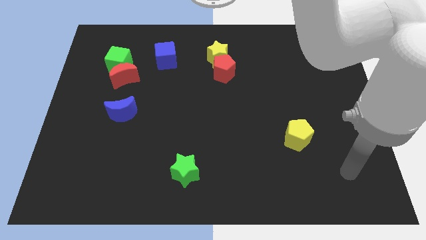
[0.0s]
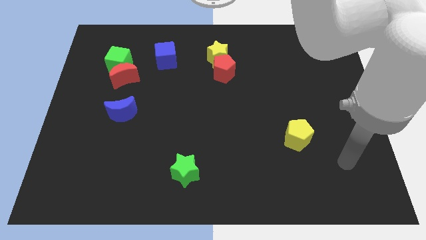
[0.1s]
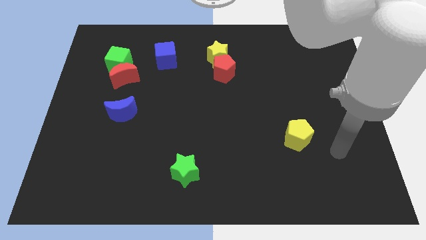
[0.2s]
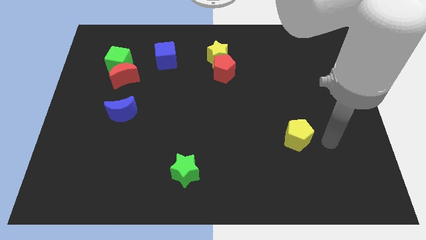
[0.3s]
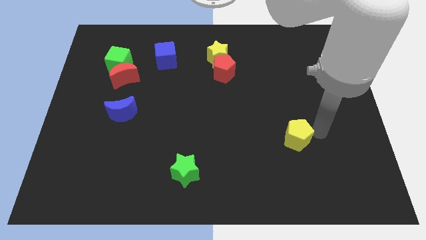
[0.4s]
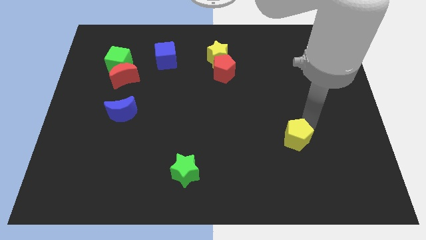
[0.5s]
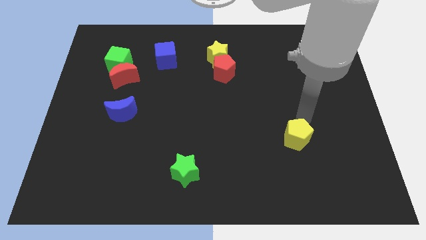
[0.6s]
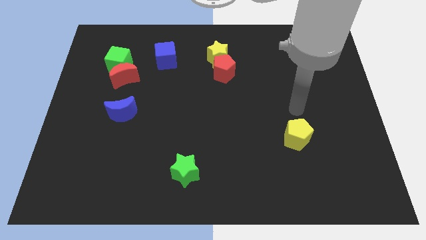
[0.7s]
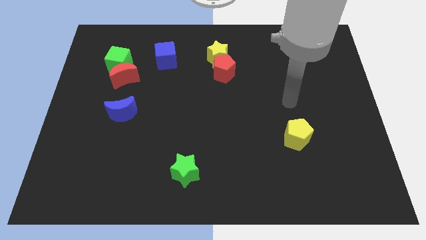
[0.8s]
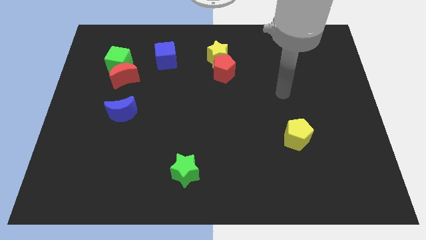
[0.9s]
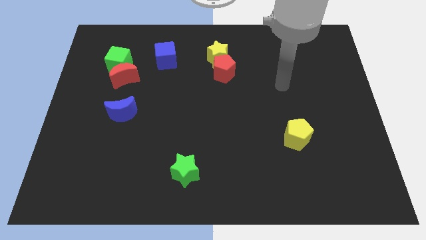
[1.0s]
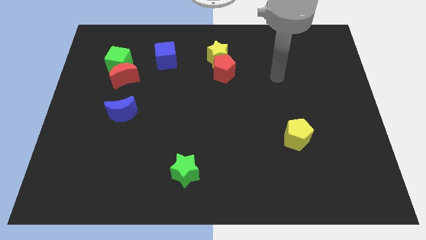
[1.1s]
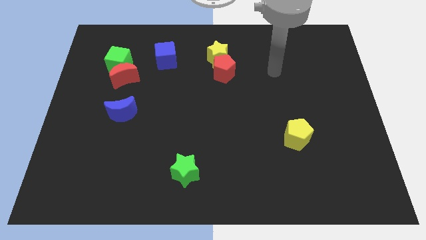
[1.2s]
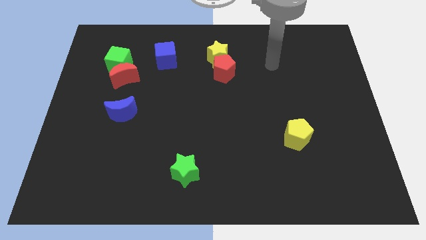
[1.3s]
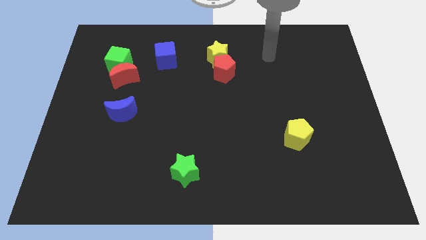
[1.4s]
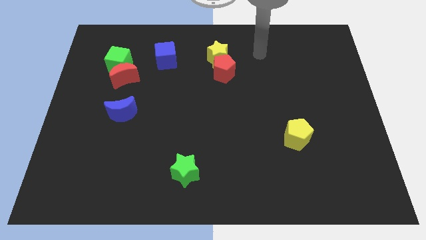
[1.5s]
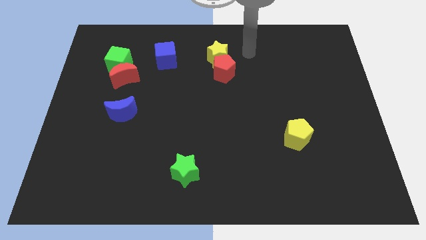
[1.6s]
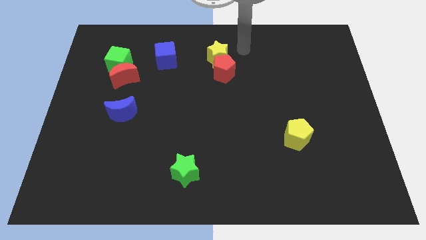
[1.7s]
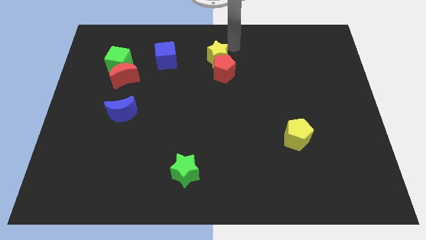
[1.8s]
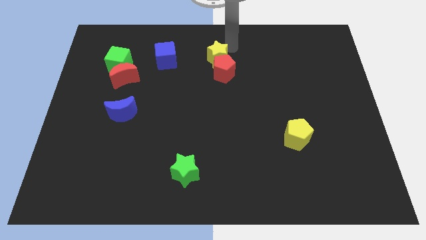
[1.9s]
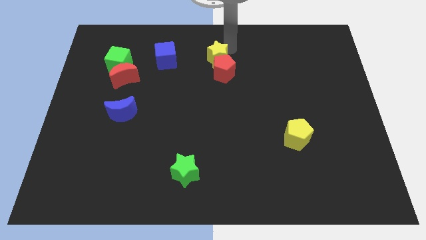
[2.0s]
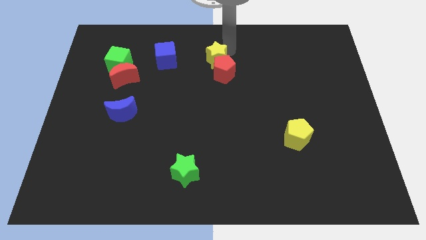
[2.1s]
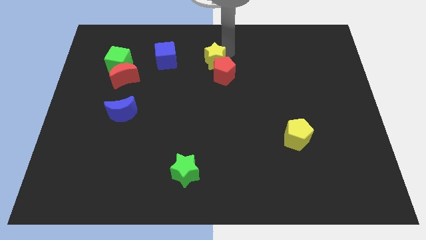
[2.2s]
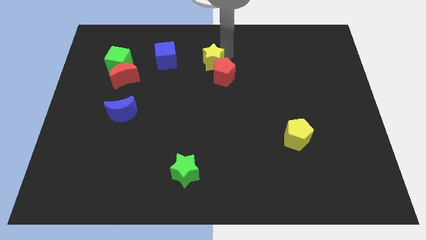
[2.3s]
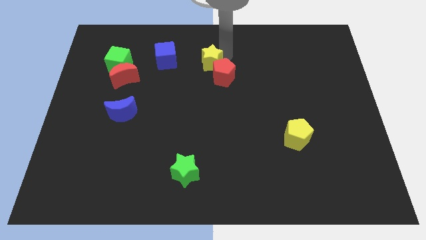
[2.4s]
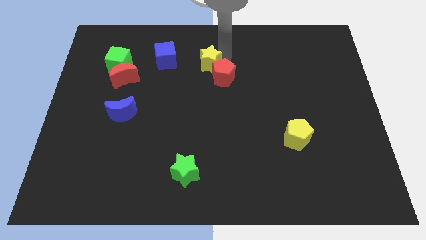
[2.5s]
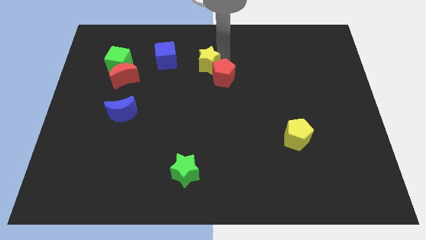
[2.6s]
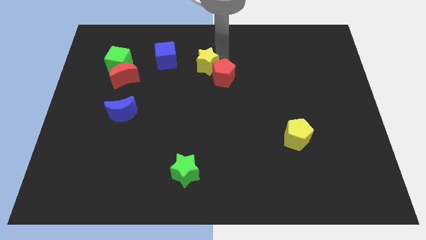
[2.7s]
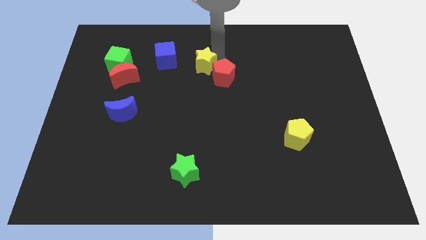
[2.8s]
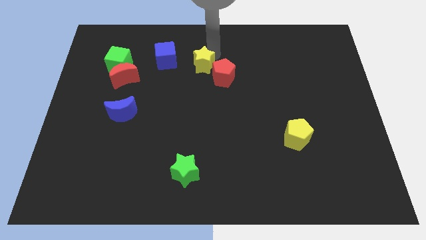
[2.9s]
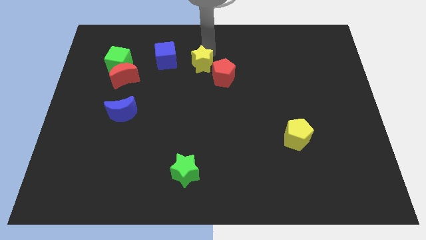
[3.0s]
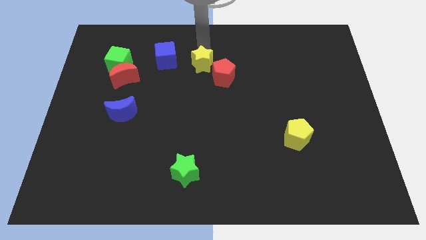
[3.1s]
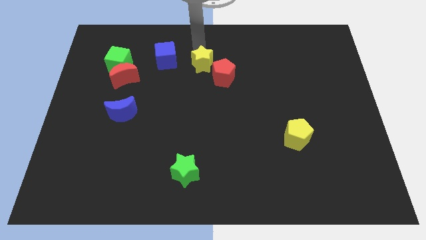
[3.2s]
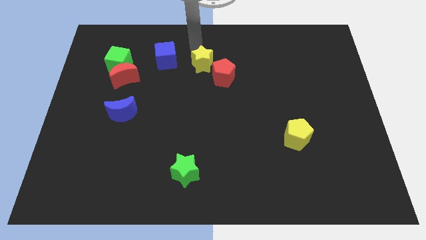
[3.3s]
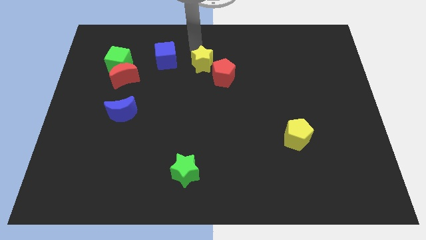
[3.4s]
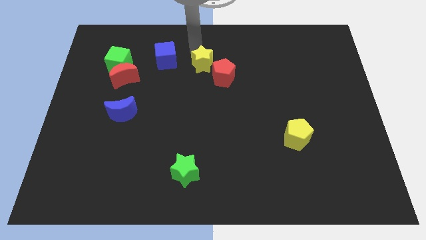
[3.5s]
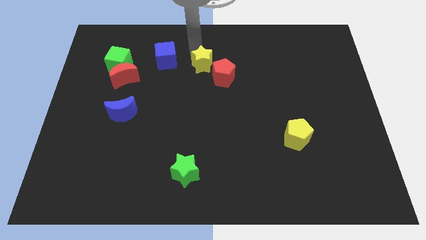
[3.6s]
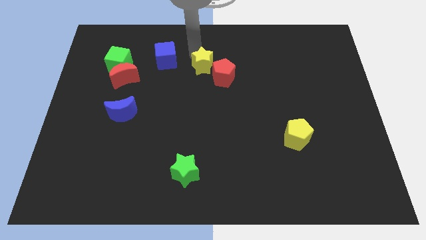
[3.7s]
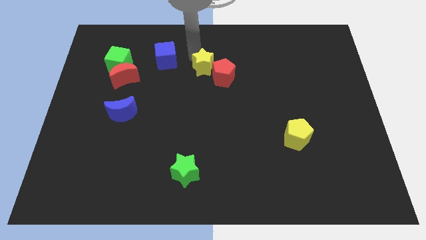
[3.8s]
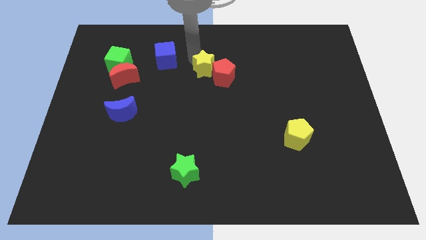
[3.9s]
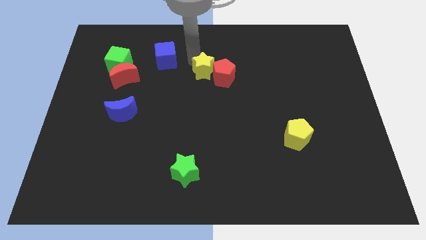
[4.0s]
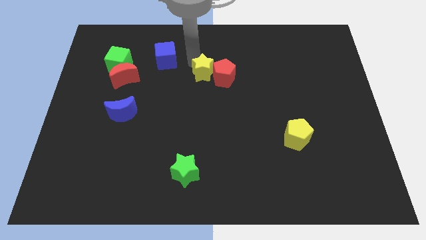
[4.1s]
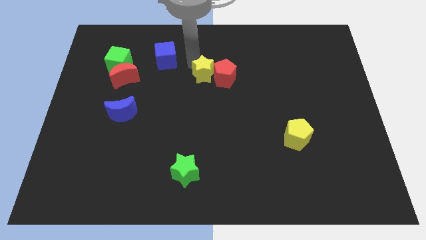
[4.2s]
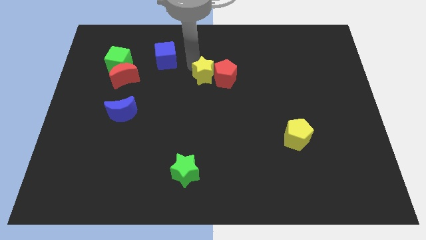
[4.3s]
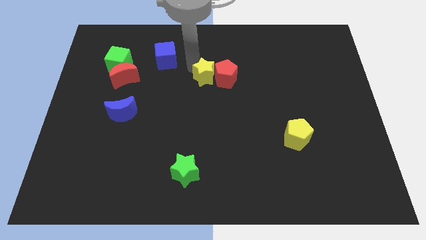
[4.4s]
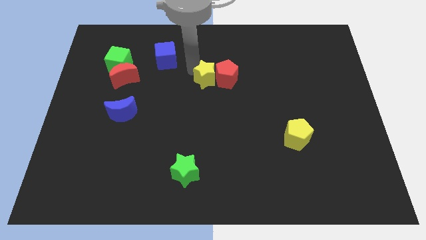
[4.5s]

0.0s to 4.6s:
push the yellow star slightly down

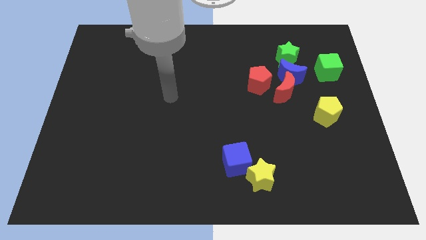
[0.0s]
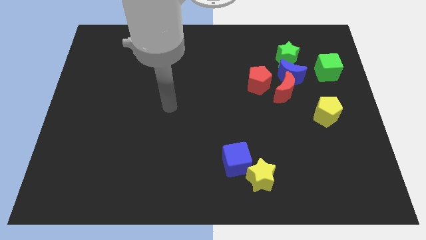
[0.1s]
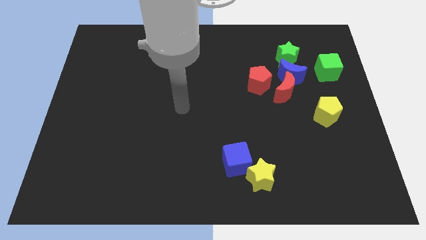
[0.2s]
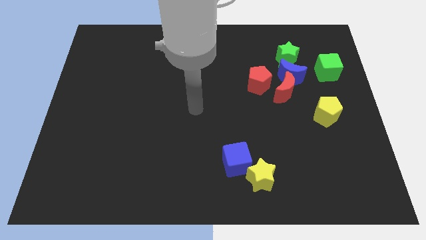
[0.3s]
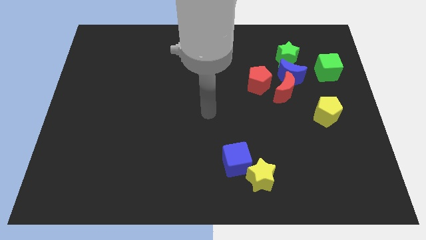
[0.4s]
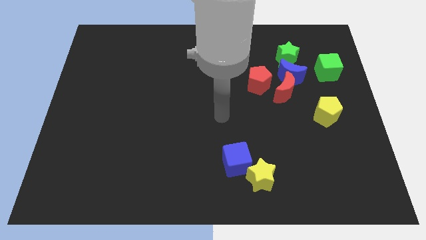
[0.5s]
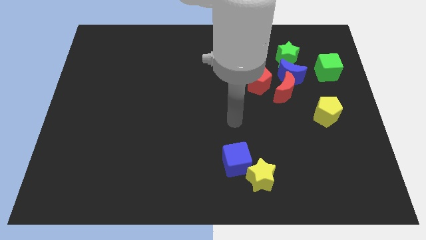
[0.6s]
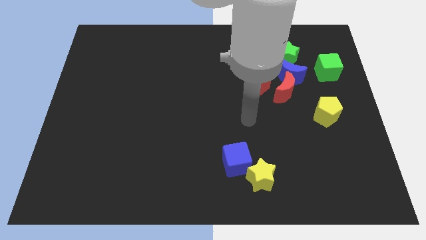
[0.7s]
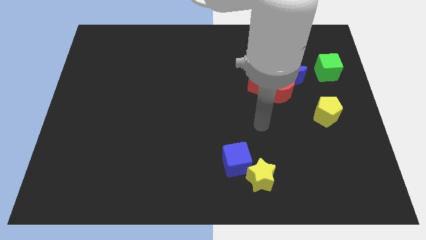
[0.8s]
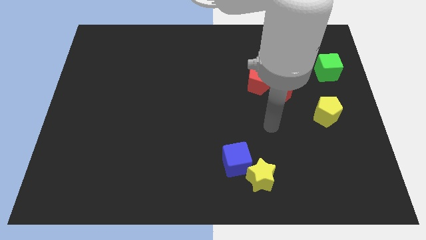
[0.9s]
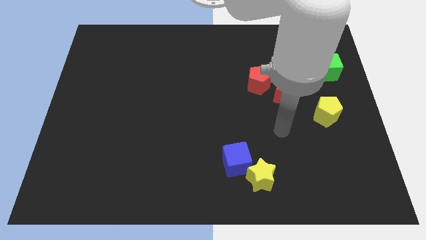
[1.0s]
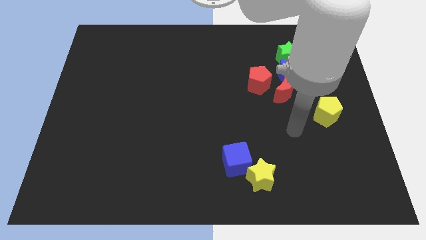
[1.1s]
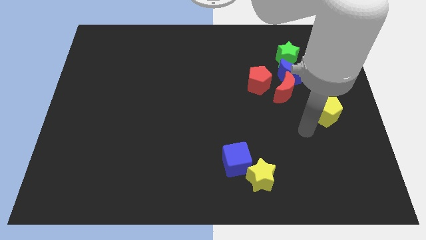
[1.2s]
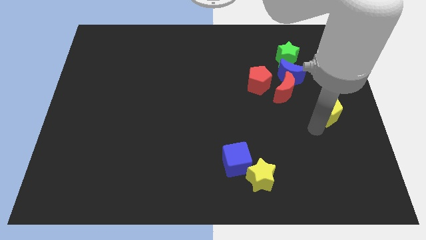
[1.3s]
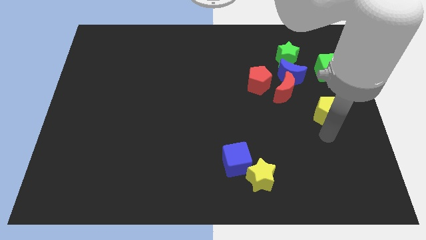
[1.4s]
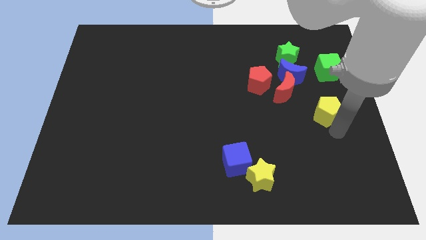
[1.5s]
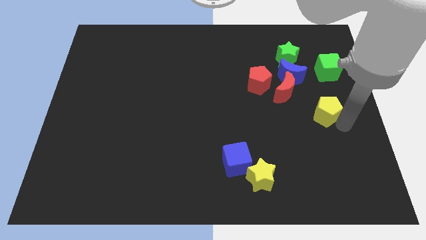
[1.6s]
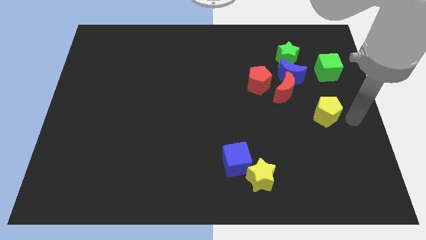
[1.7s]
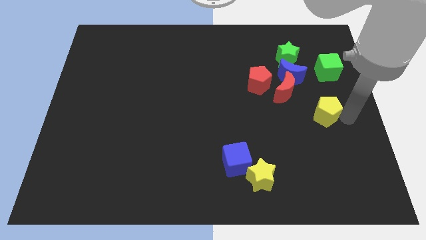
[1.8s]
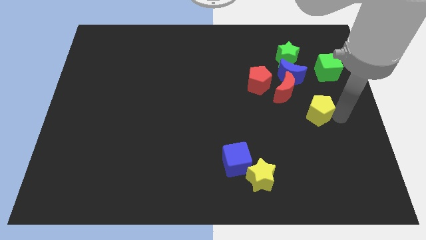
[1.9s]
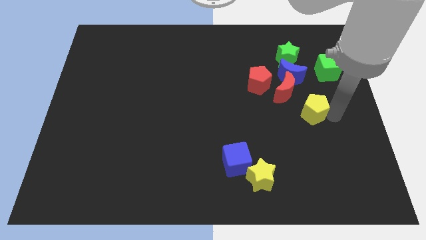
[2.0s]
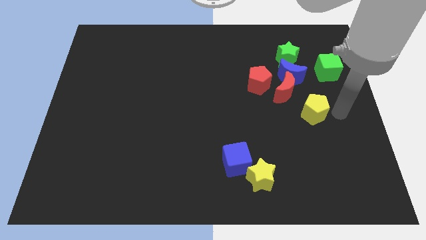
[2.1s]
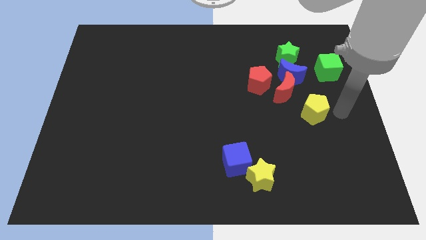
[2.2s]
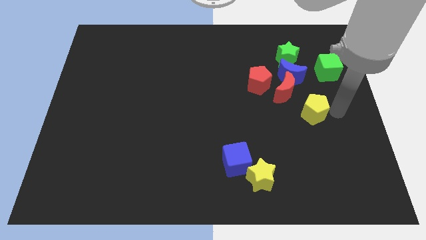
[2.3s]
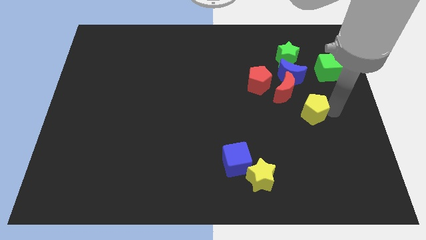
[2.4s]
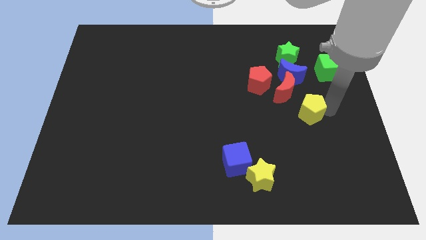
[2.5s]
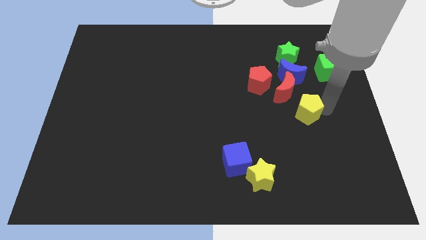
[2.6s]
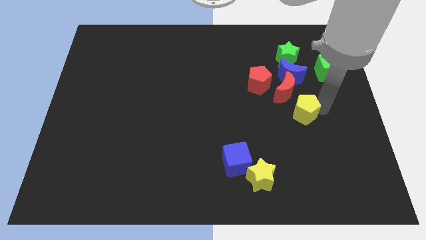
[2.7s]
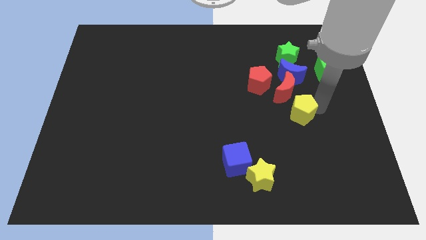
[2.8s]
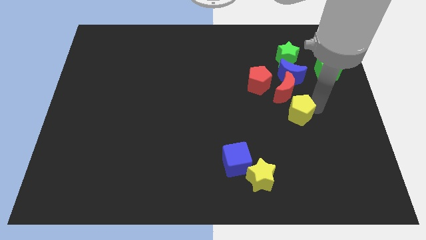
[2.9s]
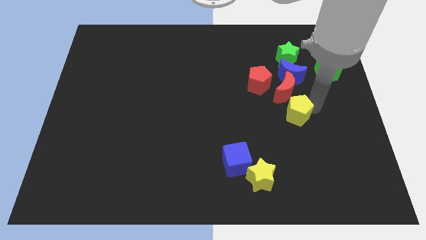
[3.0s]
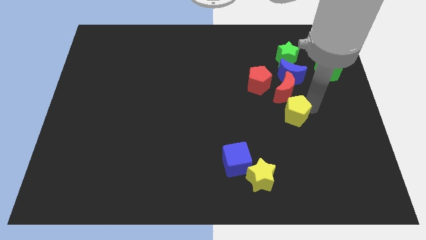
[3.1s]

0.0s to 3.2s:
slightly slide the yellow pentagon to the left

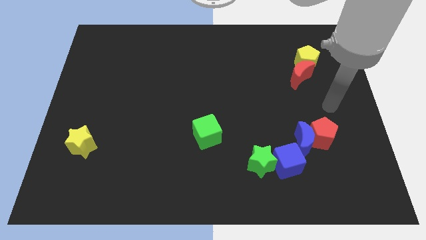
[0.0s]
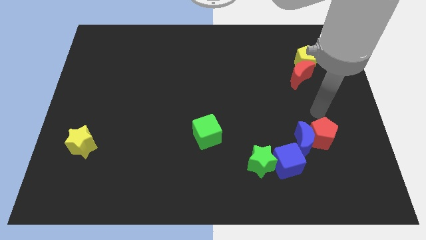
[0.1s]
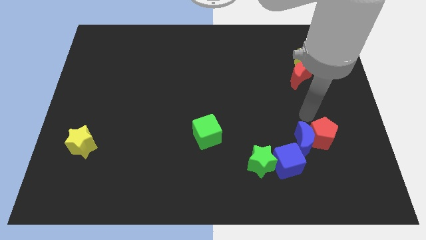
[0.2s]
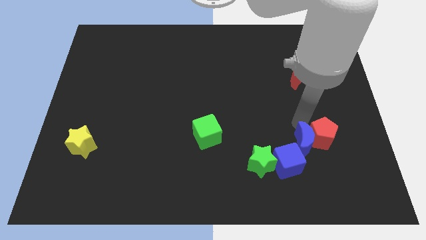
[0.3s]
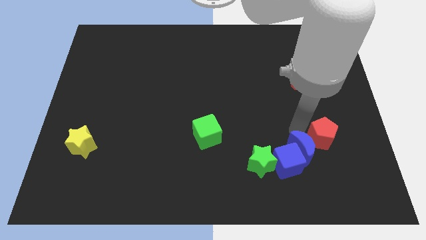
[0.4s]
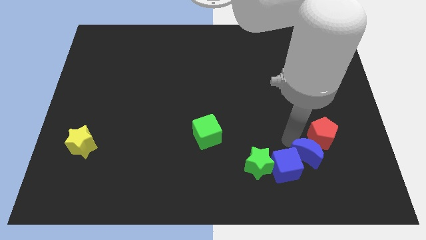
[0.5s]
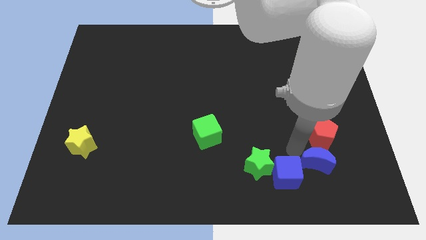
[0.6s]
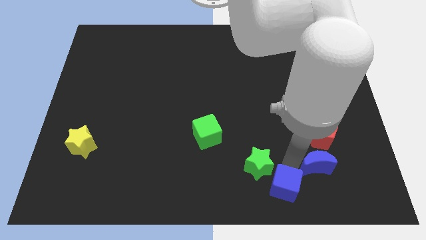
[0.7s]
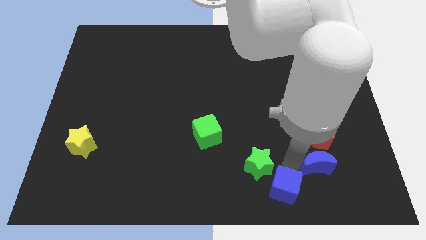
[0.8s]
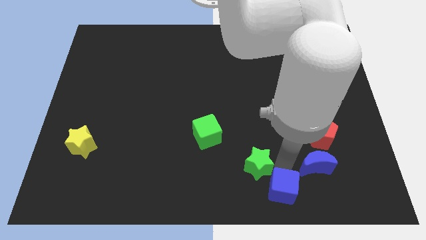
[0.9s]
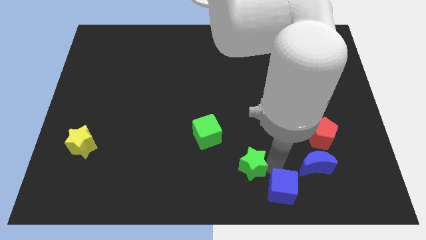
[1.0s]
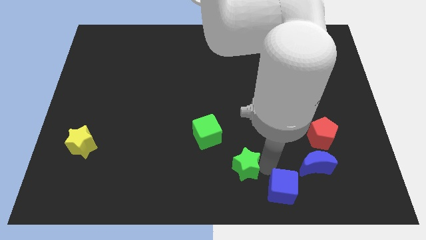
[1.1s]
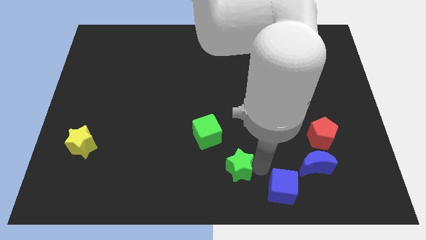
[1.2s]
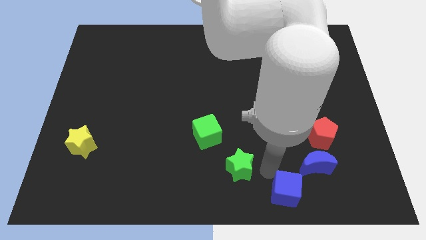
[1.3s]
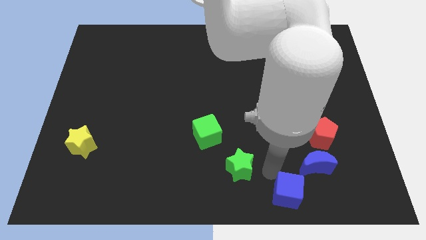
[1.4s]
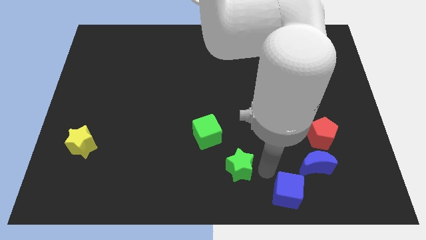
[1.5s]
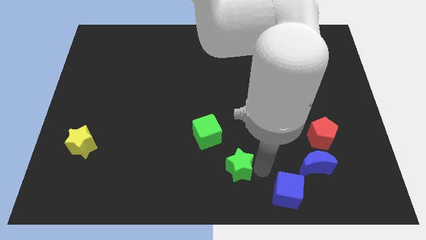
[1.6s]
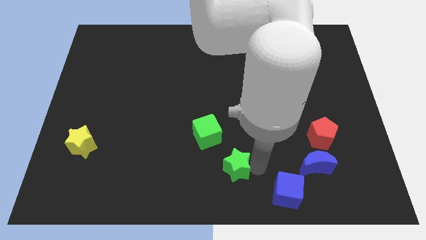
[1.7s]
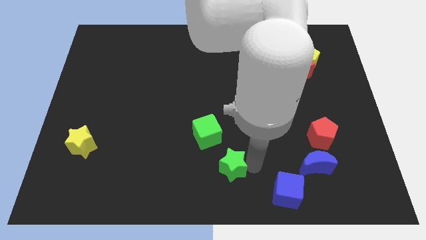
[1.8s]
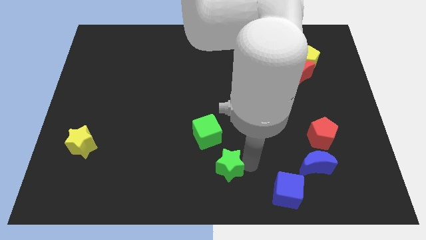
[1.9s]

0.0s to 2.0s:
move the green star a bit to the left
